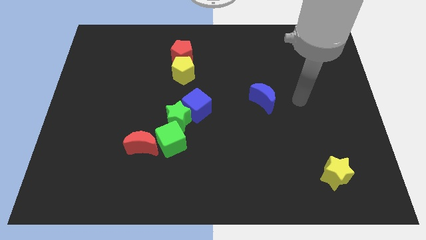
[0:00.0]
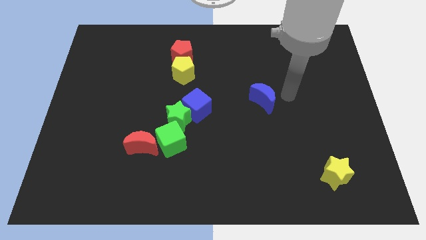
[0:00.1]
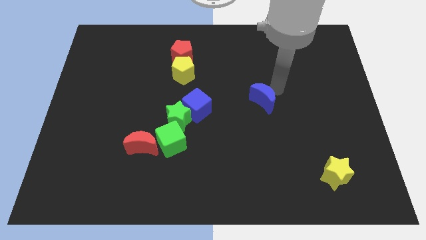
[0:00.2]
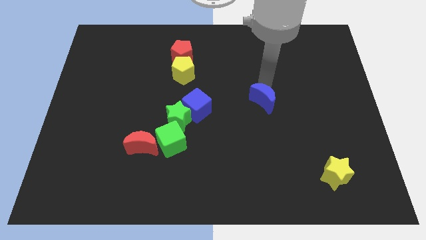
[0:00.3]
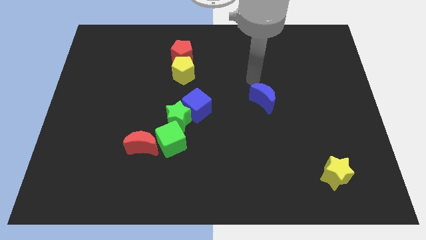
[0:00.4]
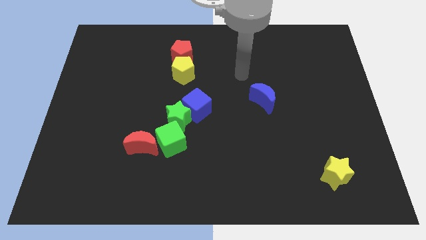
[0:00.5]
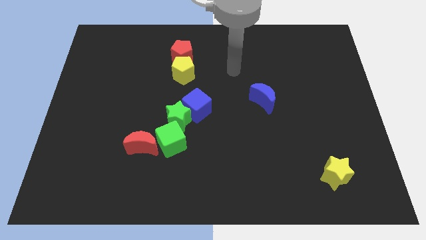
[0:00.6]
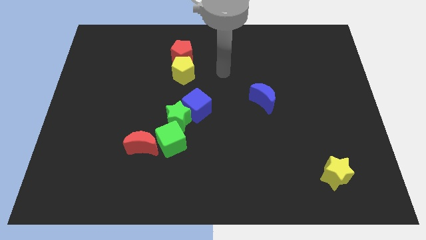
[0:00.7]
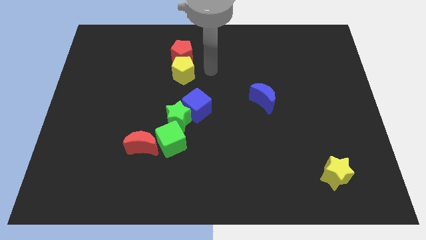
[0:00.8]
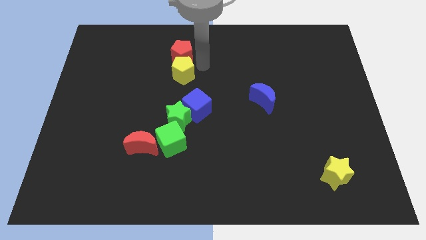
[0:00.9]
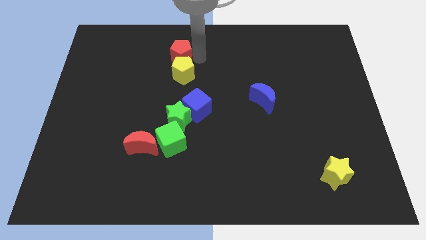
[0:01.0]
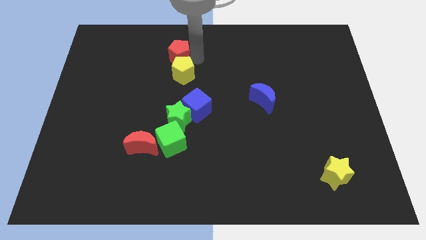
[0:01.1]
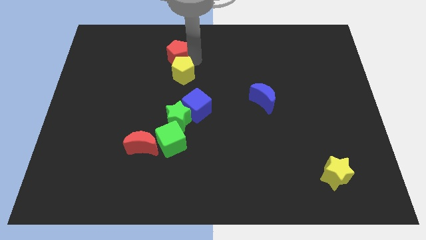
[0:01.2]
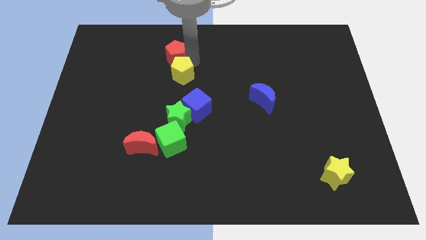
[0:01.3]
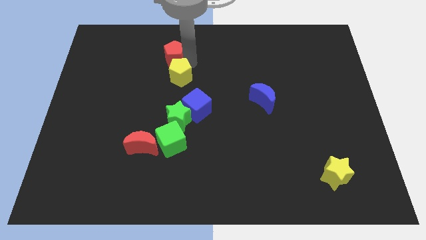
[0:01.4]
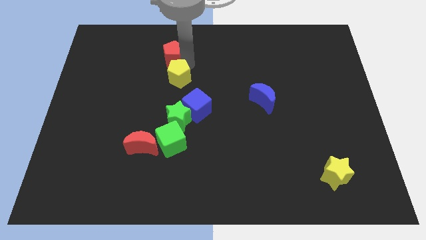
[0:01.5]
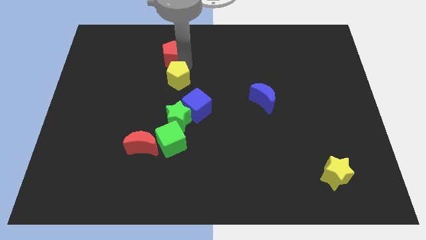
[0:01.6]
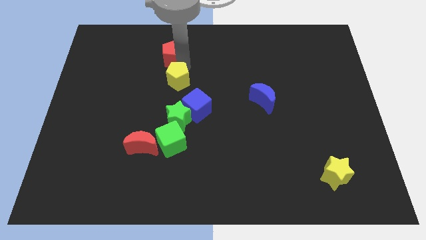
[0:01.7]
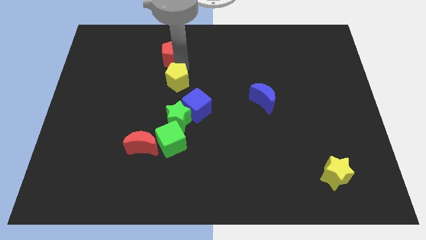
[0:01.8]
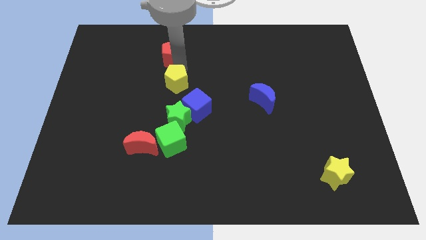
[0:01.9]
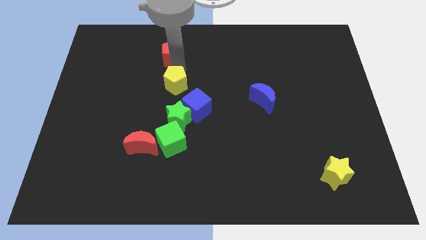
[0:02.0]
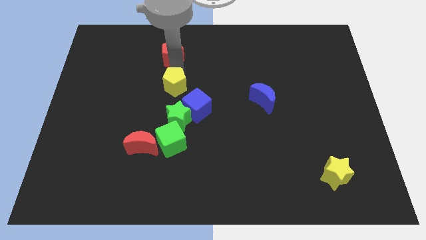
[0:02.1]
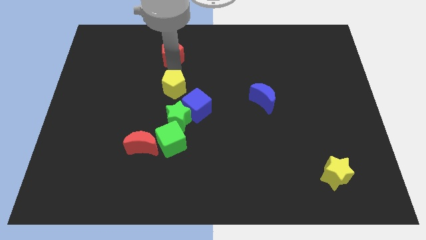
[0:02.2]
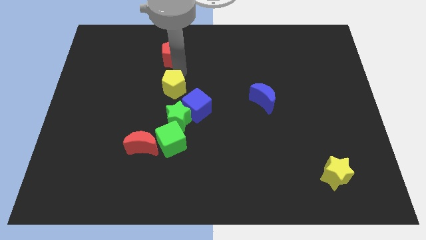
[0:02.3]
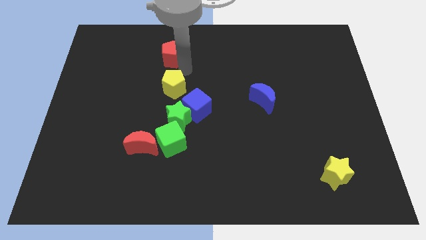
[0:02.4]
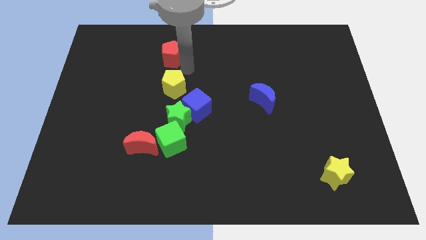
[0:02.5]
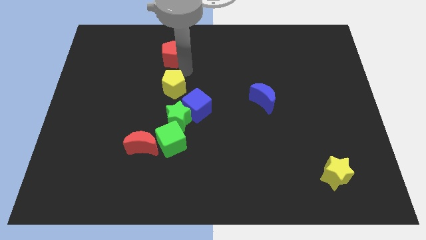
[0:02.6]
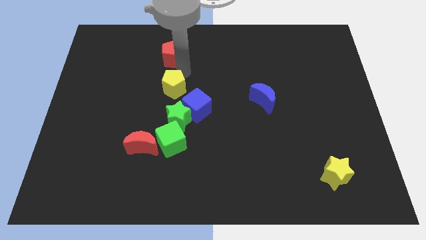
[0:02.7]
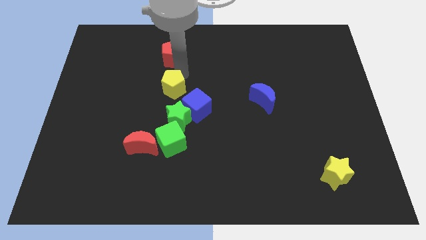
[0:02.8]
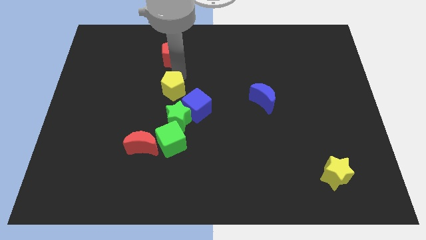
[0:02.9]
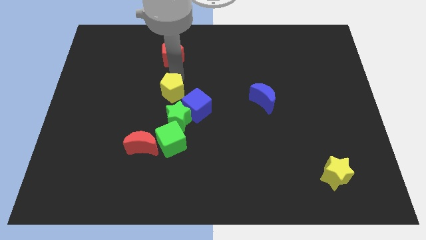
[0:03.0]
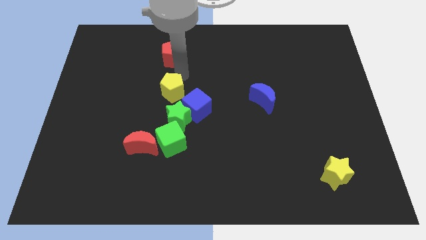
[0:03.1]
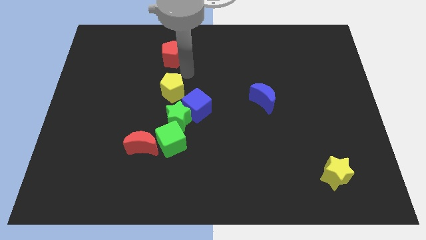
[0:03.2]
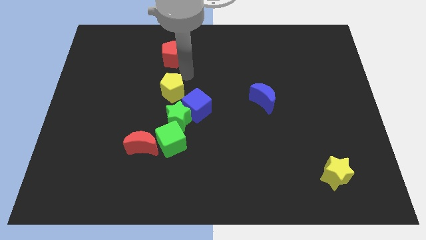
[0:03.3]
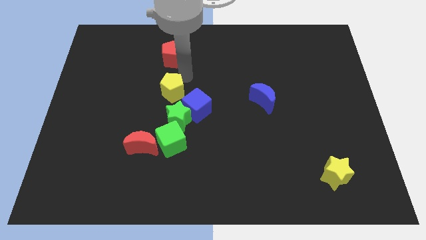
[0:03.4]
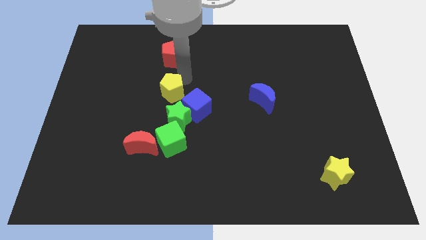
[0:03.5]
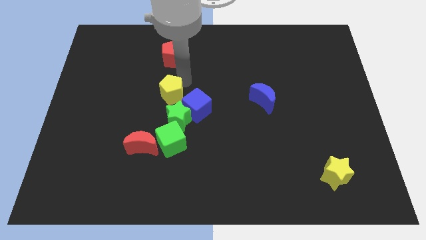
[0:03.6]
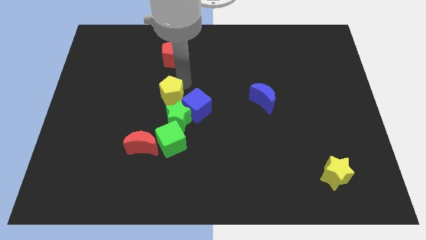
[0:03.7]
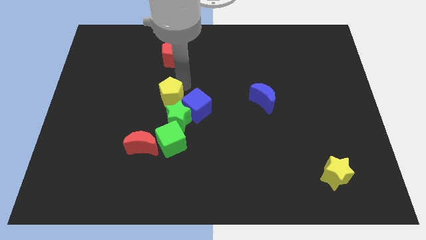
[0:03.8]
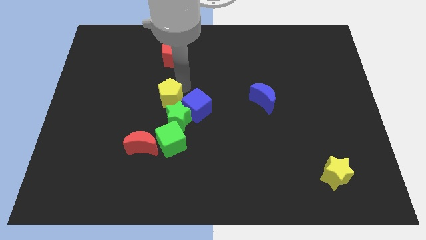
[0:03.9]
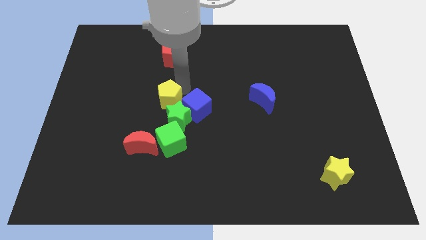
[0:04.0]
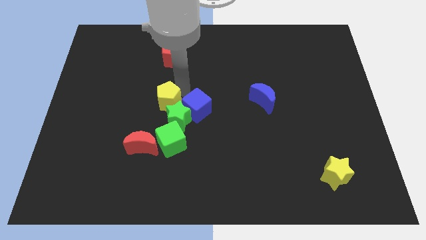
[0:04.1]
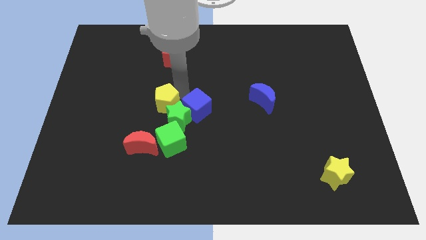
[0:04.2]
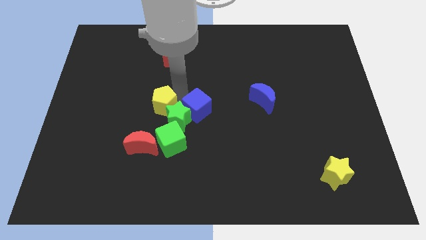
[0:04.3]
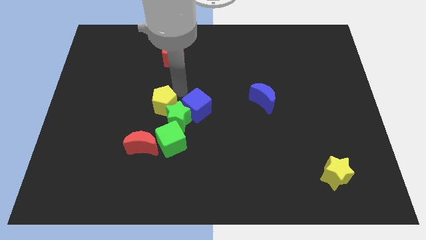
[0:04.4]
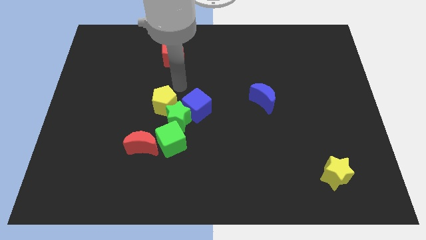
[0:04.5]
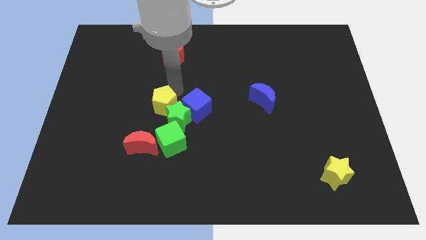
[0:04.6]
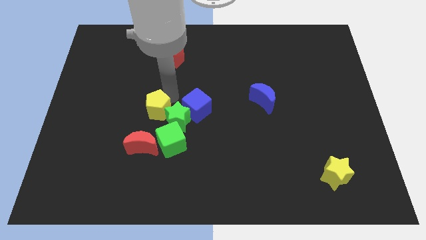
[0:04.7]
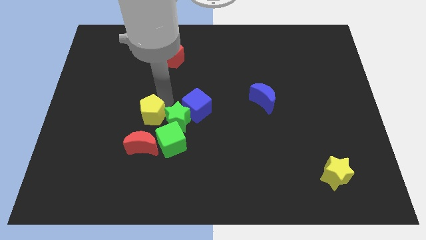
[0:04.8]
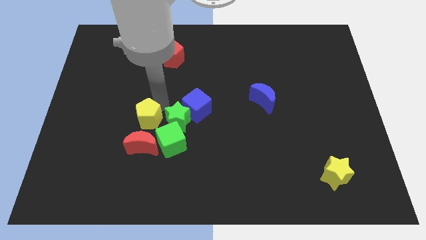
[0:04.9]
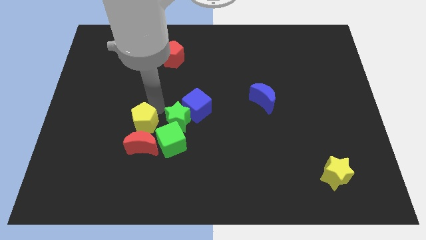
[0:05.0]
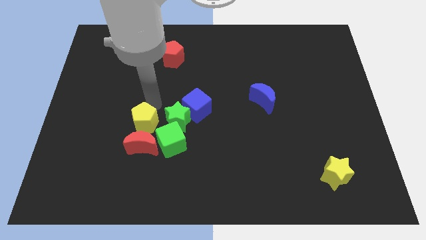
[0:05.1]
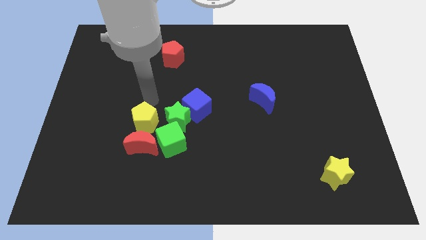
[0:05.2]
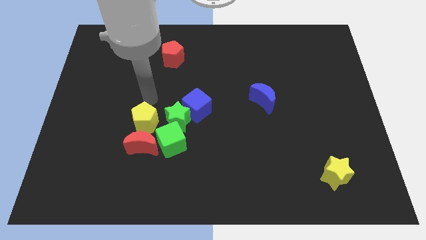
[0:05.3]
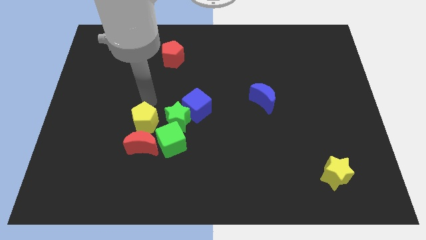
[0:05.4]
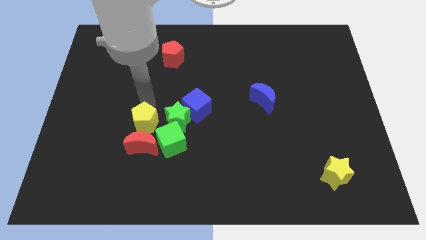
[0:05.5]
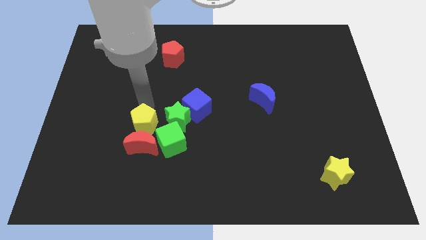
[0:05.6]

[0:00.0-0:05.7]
move the yellow pentagon to the red moon

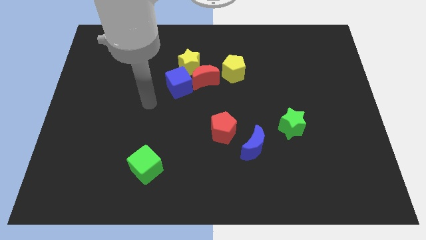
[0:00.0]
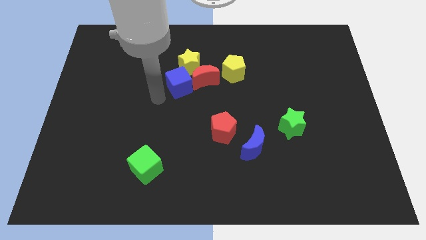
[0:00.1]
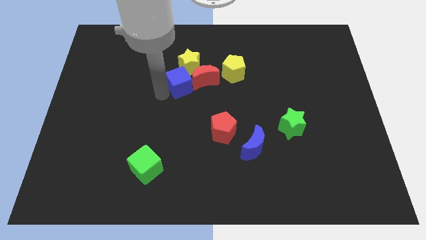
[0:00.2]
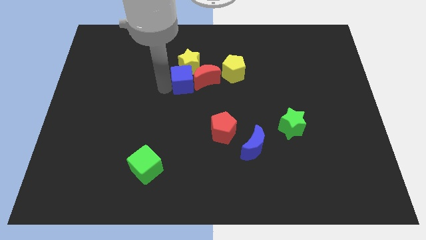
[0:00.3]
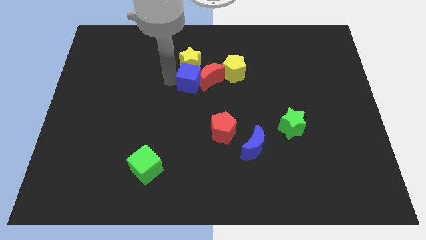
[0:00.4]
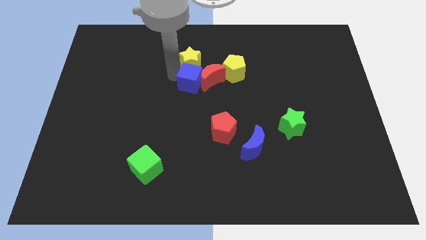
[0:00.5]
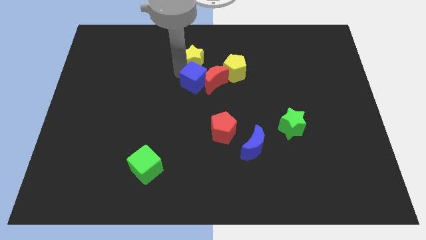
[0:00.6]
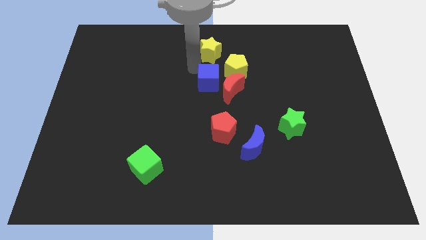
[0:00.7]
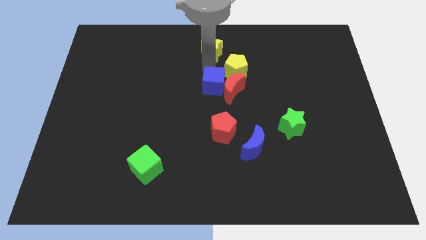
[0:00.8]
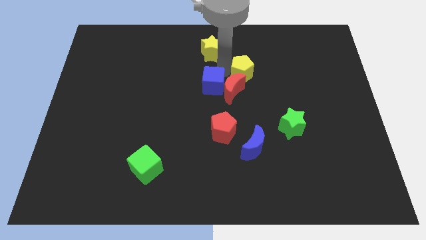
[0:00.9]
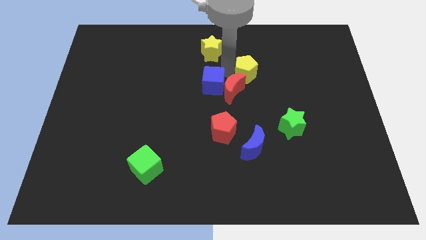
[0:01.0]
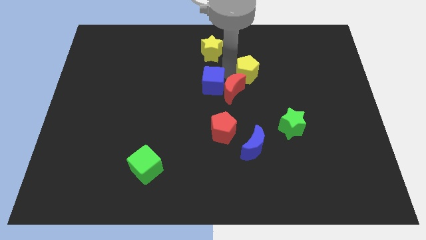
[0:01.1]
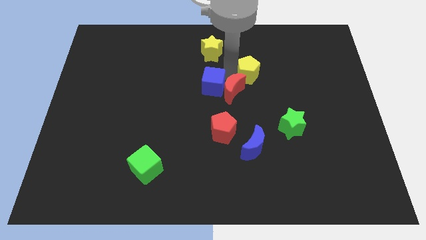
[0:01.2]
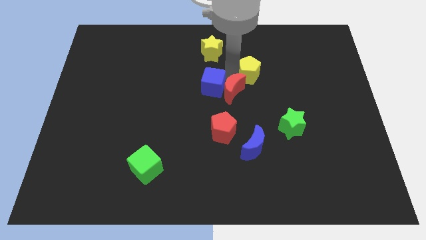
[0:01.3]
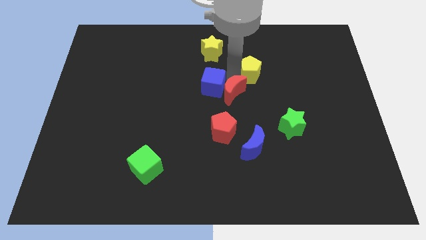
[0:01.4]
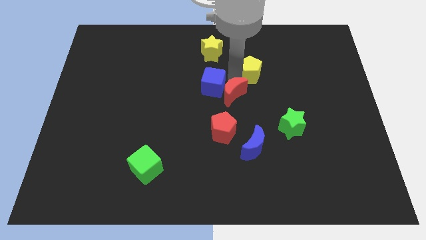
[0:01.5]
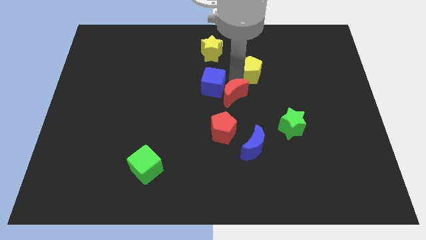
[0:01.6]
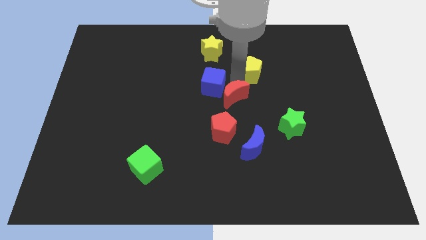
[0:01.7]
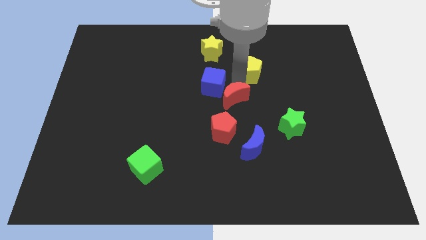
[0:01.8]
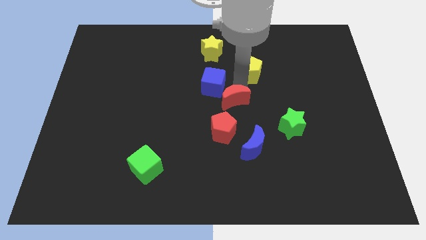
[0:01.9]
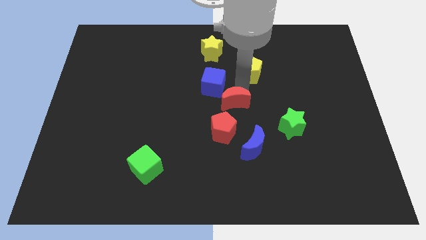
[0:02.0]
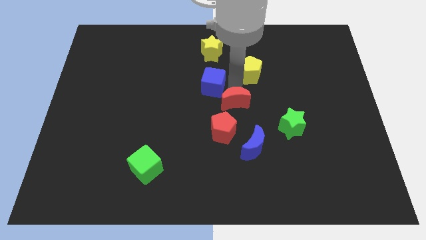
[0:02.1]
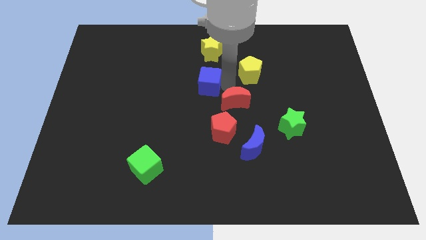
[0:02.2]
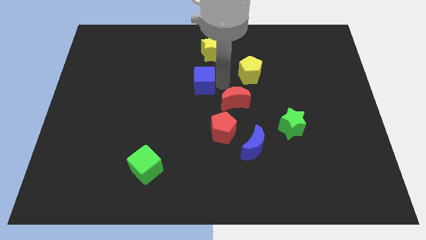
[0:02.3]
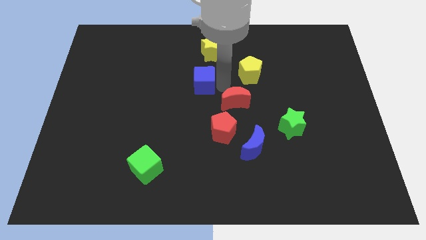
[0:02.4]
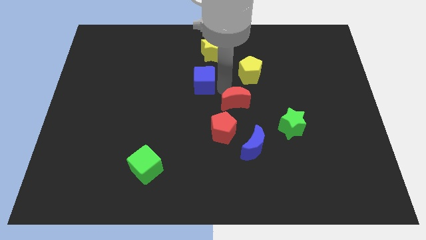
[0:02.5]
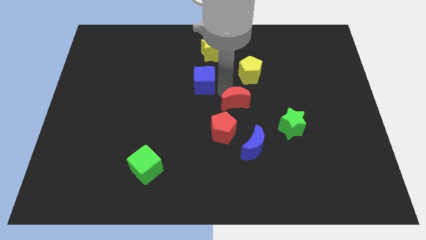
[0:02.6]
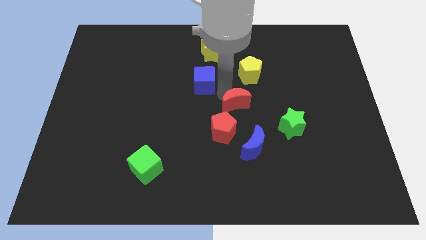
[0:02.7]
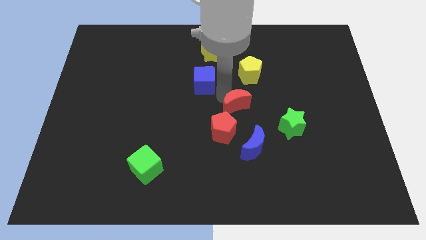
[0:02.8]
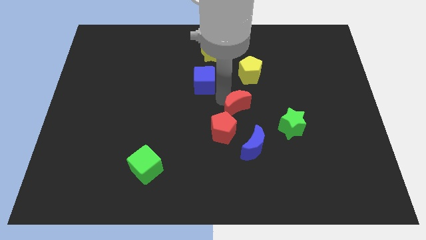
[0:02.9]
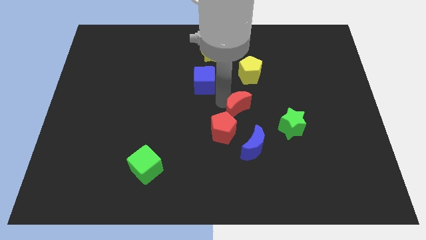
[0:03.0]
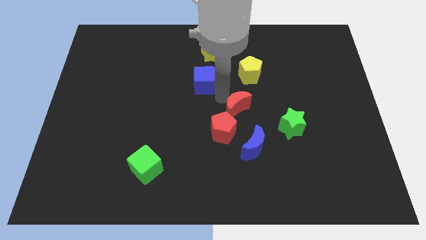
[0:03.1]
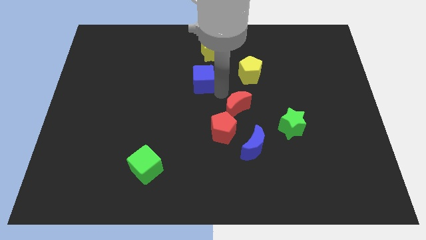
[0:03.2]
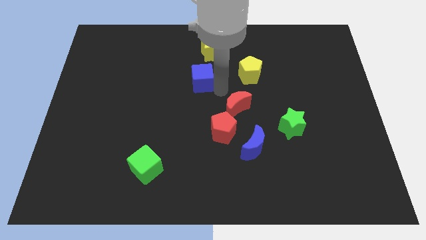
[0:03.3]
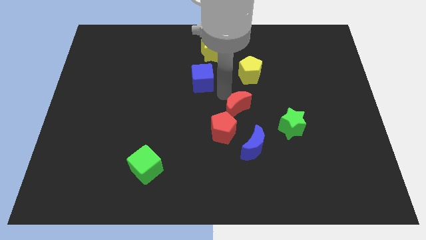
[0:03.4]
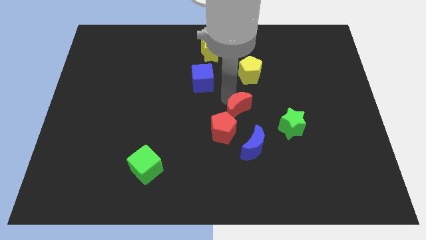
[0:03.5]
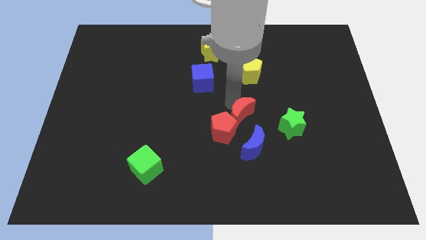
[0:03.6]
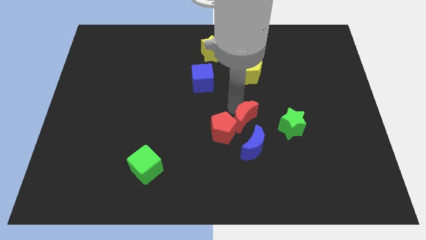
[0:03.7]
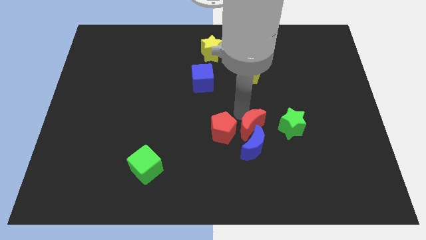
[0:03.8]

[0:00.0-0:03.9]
put the red moon towards the blue moon
